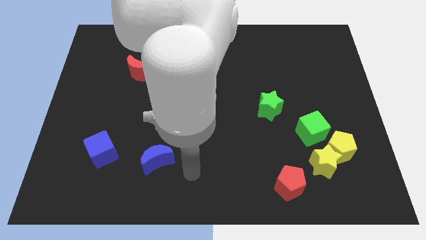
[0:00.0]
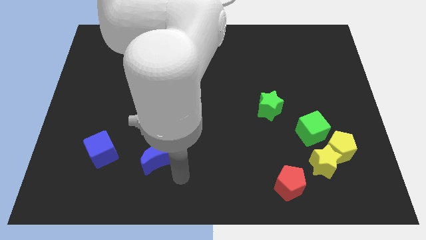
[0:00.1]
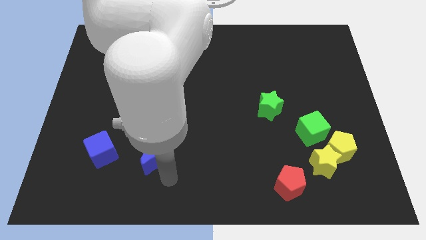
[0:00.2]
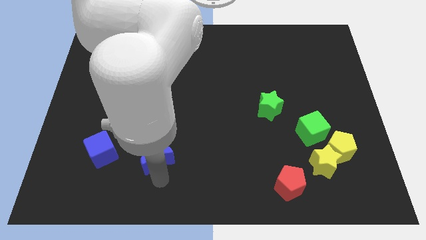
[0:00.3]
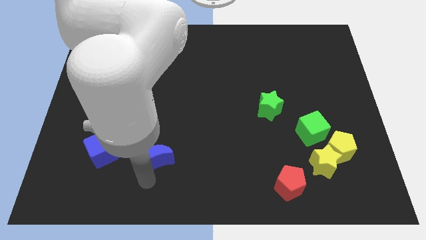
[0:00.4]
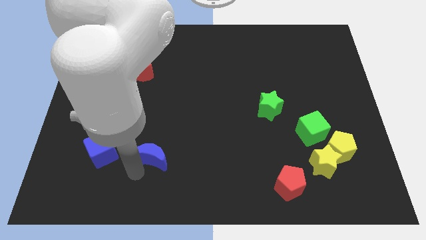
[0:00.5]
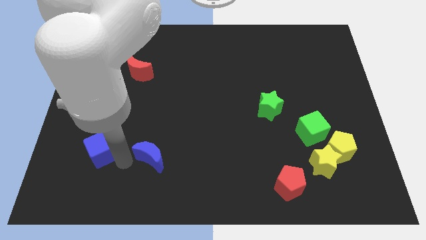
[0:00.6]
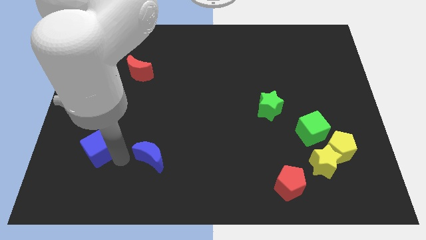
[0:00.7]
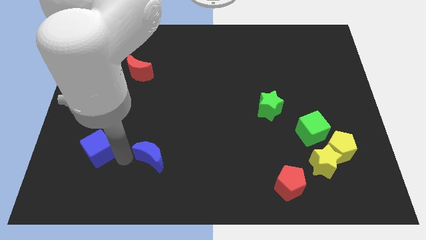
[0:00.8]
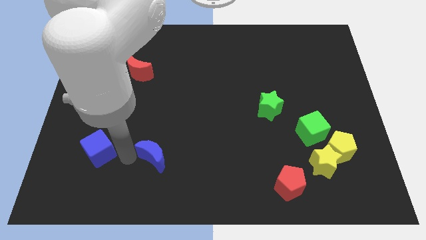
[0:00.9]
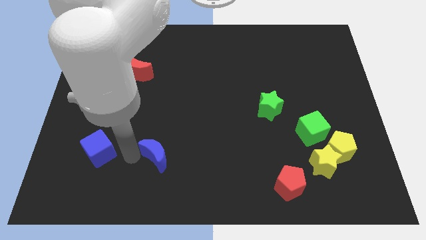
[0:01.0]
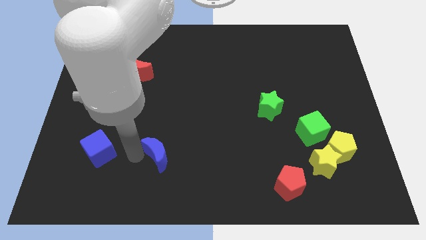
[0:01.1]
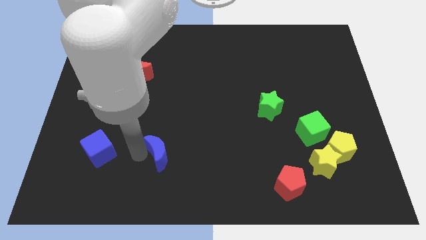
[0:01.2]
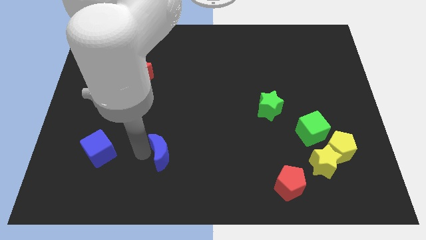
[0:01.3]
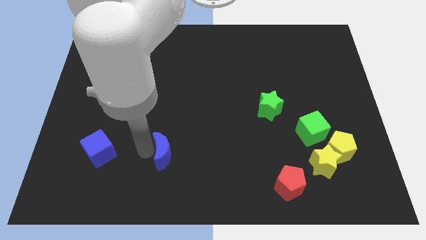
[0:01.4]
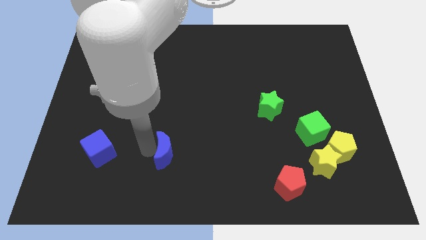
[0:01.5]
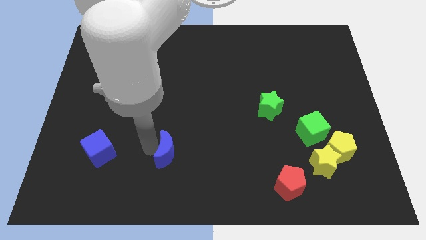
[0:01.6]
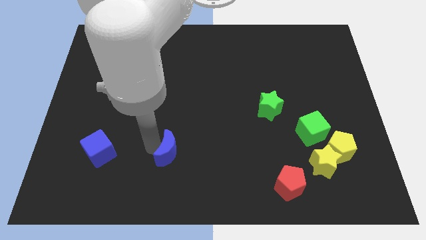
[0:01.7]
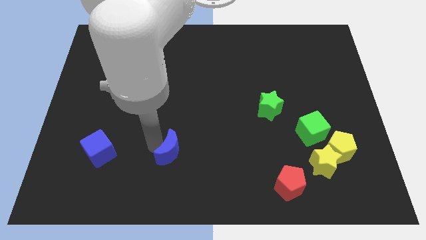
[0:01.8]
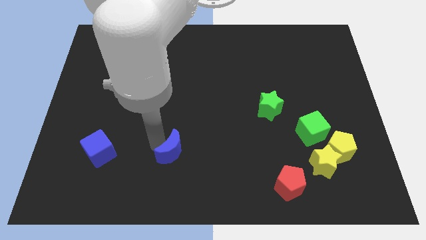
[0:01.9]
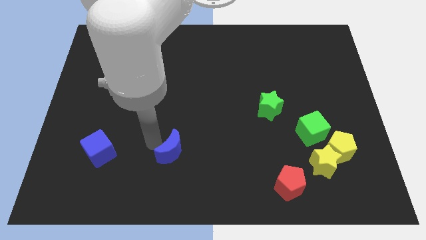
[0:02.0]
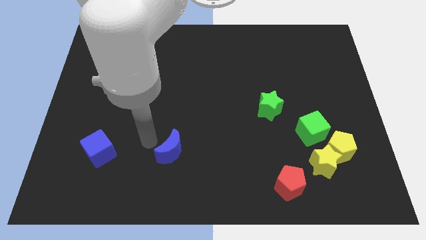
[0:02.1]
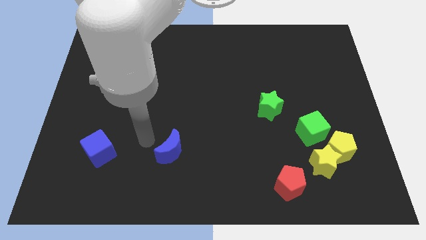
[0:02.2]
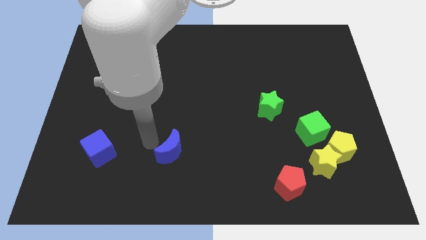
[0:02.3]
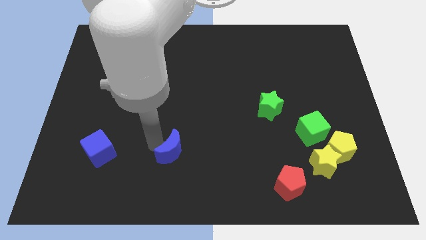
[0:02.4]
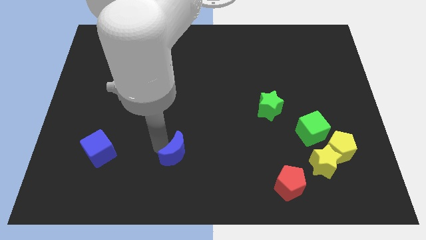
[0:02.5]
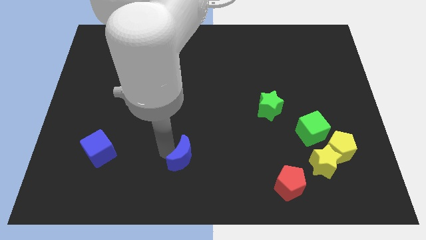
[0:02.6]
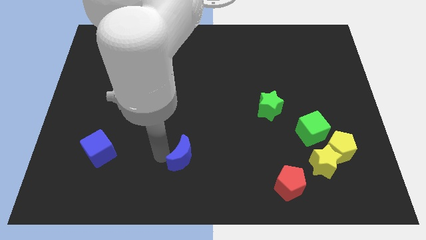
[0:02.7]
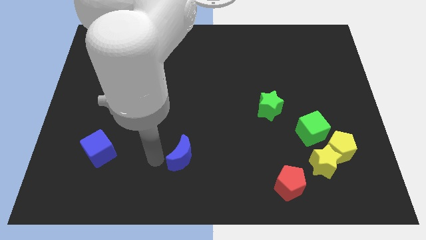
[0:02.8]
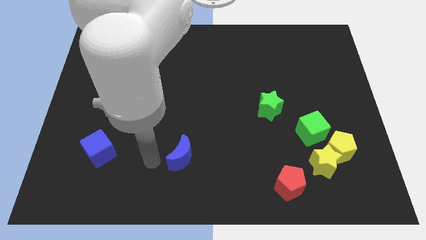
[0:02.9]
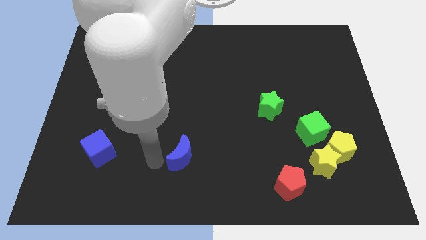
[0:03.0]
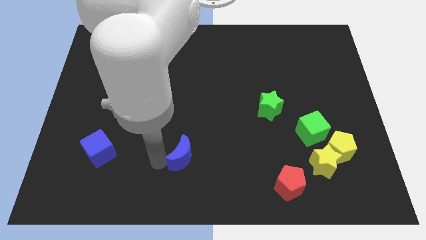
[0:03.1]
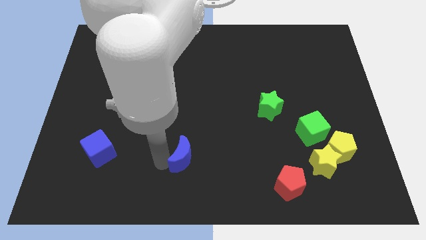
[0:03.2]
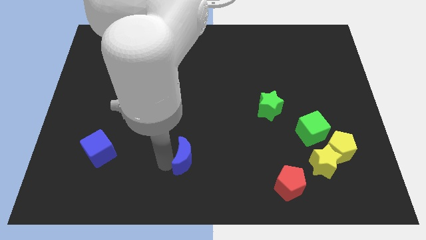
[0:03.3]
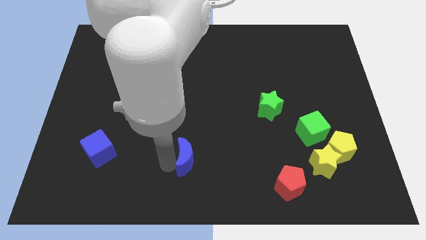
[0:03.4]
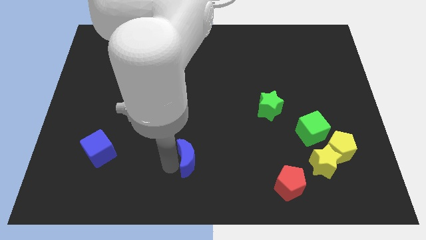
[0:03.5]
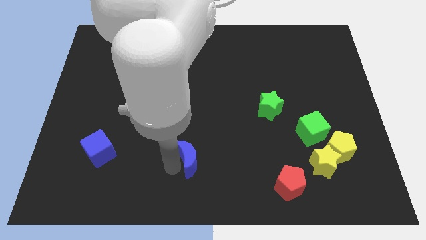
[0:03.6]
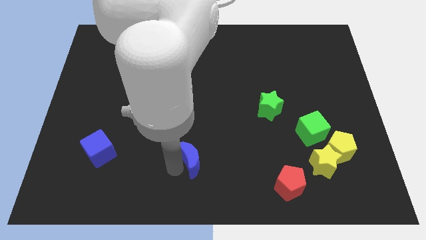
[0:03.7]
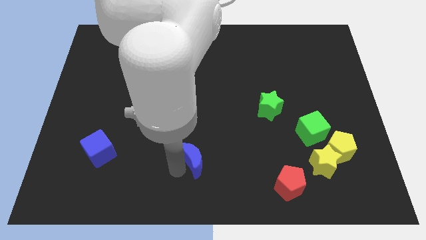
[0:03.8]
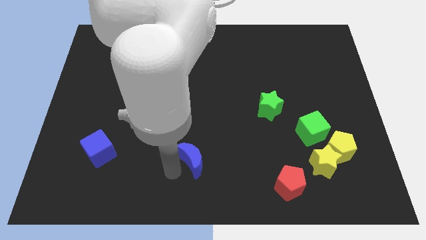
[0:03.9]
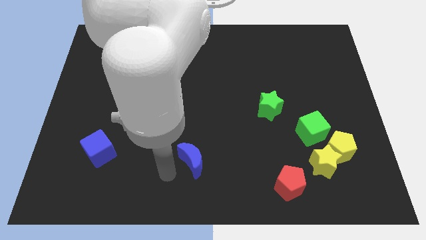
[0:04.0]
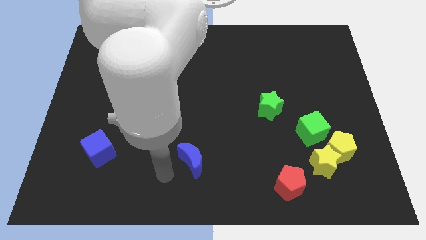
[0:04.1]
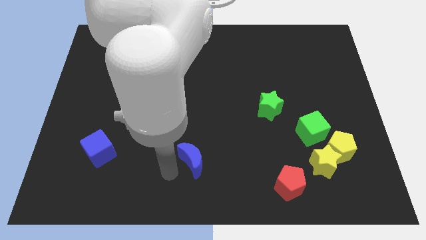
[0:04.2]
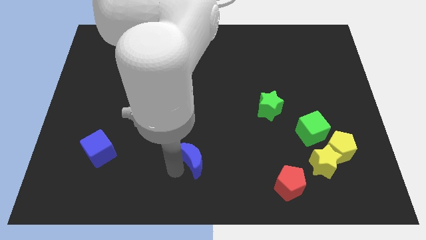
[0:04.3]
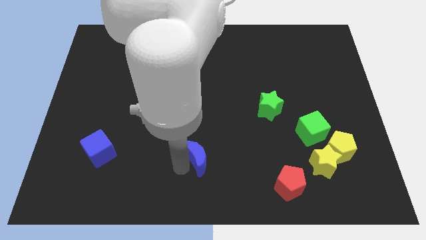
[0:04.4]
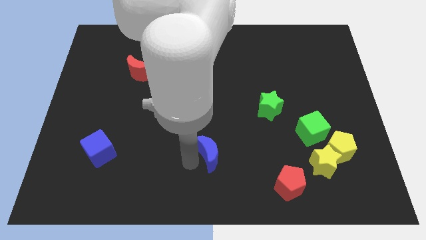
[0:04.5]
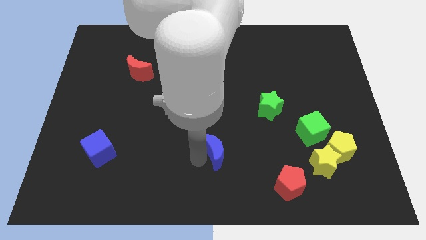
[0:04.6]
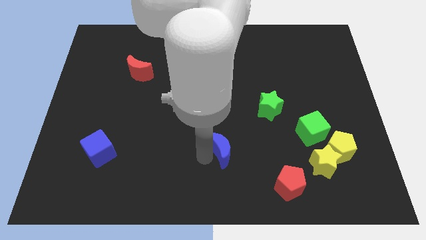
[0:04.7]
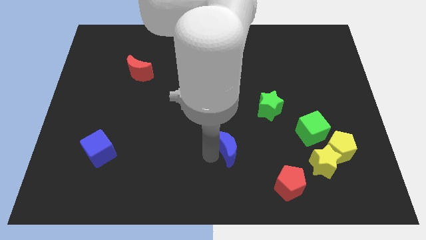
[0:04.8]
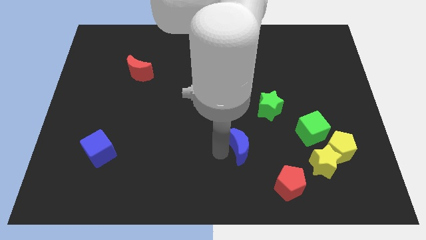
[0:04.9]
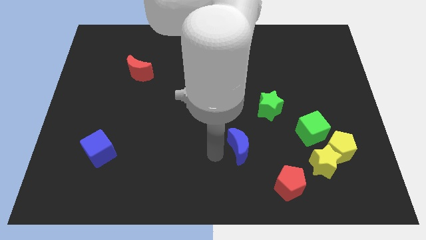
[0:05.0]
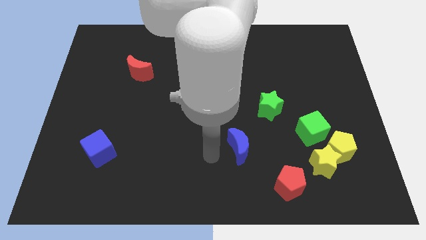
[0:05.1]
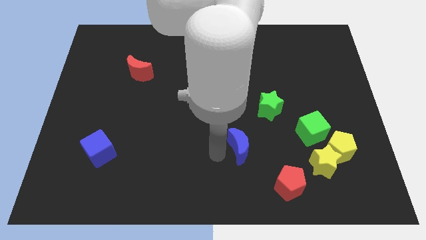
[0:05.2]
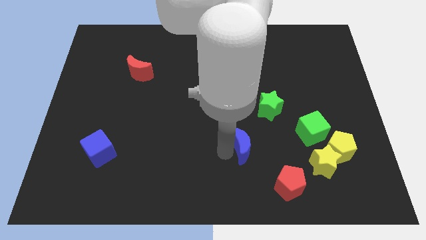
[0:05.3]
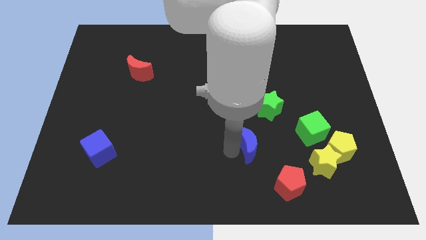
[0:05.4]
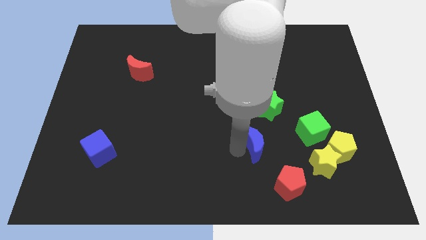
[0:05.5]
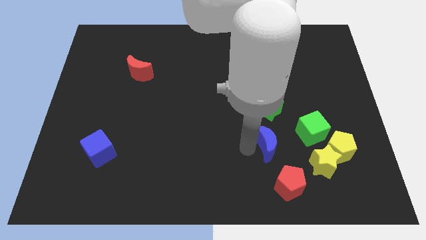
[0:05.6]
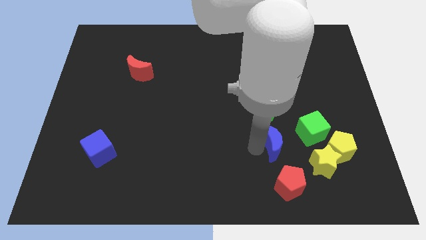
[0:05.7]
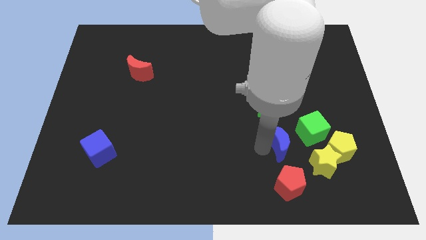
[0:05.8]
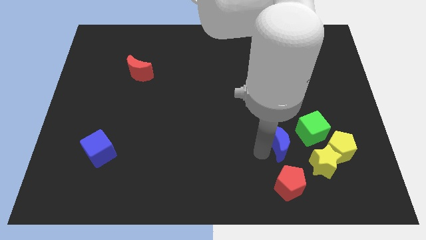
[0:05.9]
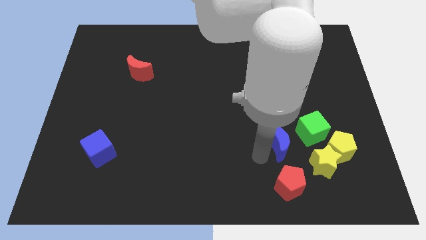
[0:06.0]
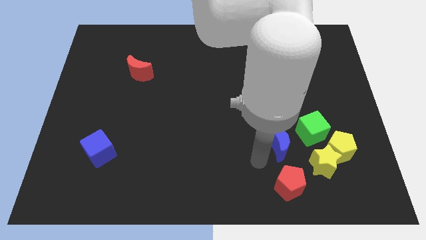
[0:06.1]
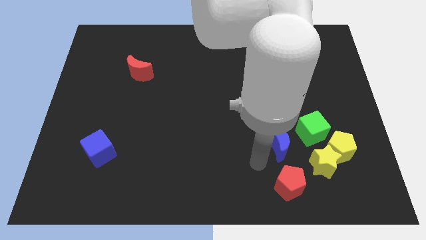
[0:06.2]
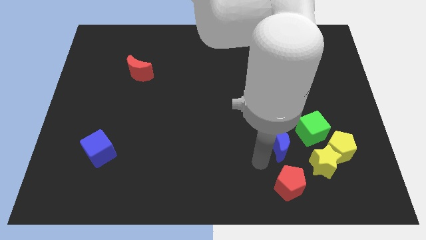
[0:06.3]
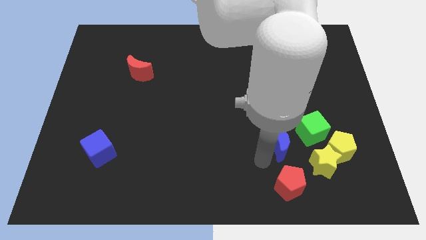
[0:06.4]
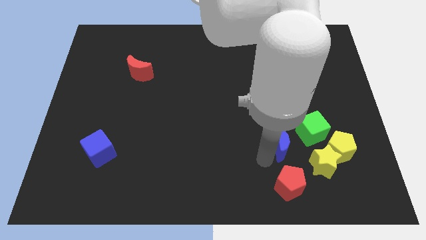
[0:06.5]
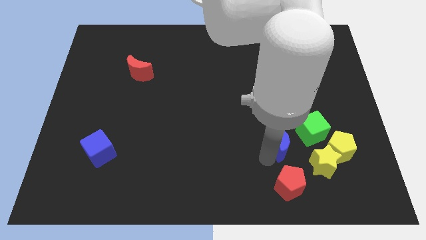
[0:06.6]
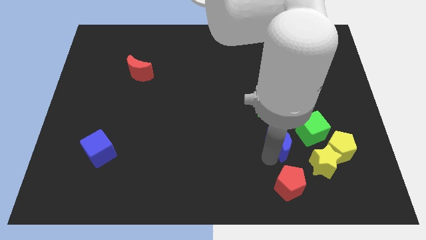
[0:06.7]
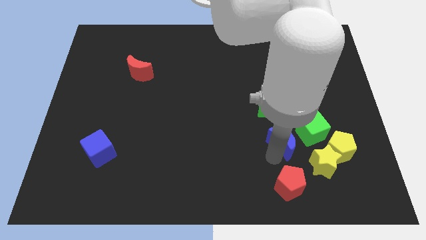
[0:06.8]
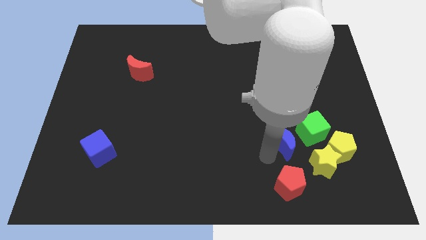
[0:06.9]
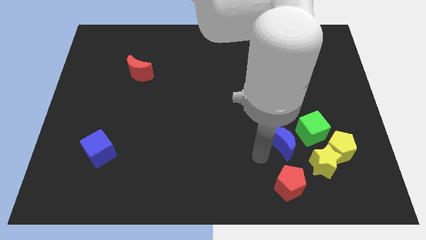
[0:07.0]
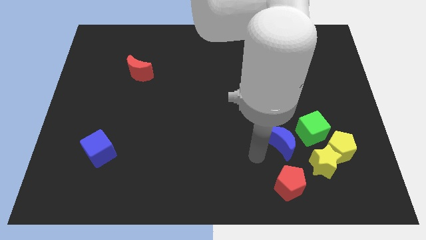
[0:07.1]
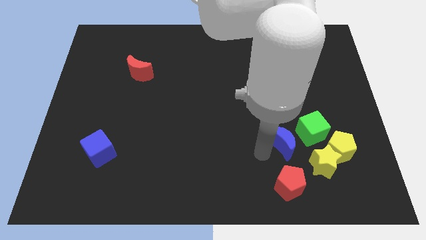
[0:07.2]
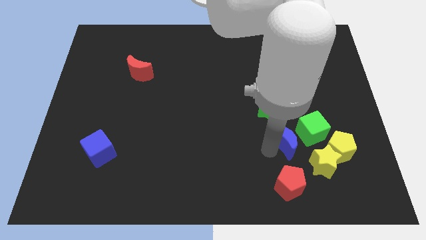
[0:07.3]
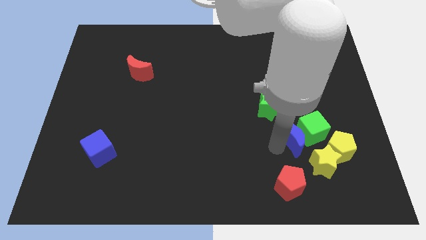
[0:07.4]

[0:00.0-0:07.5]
put the blue moon to the green cube
